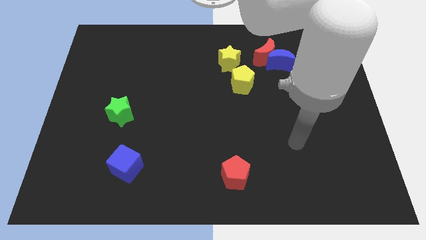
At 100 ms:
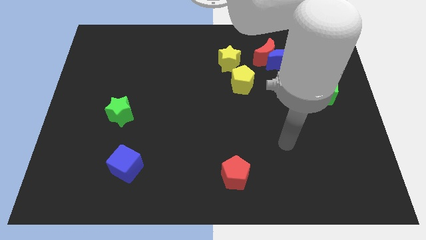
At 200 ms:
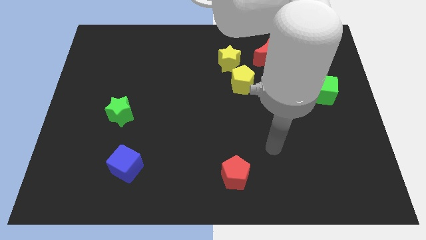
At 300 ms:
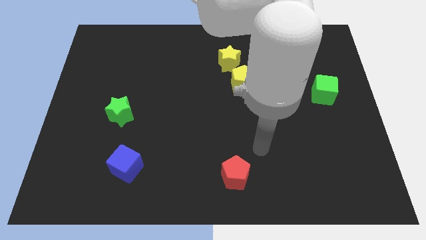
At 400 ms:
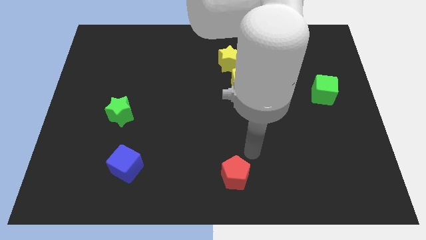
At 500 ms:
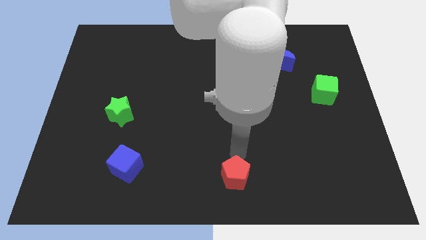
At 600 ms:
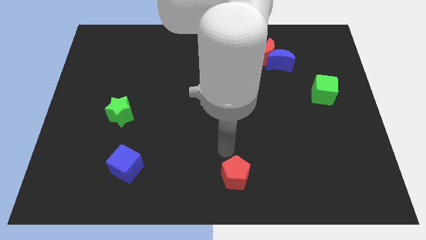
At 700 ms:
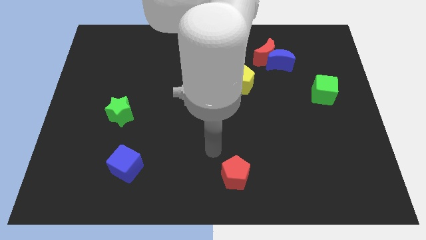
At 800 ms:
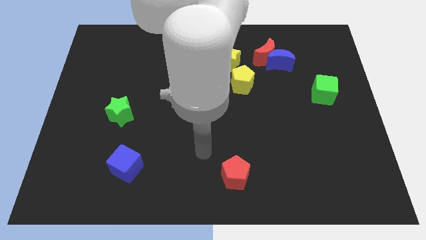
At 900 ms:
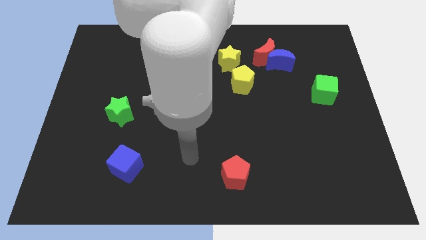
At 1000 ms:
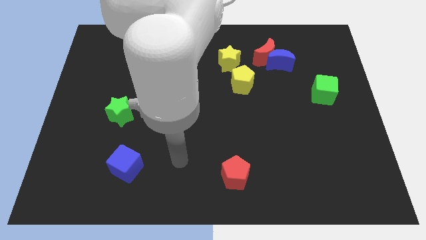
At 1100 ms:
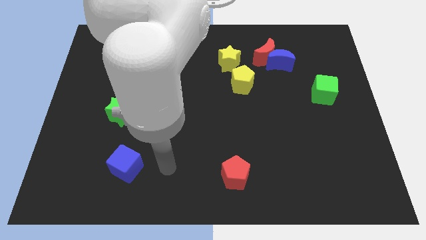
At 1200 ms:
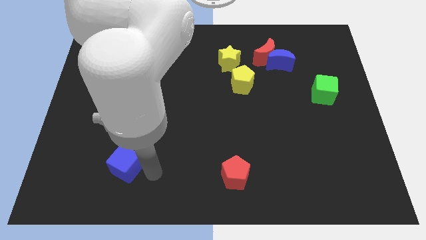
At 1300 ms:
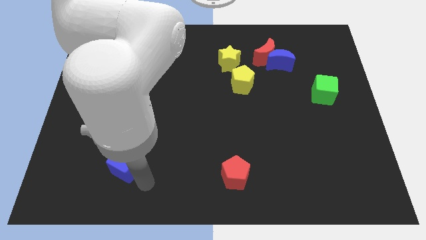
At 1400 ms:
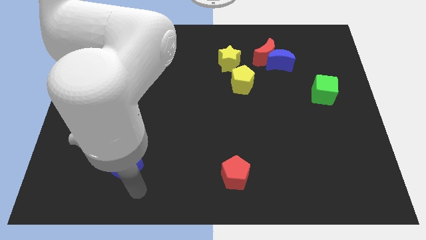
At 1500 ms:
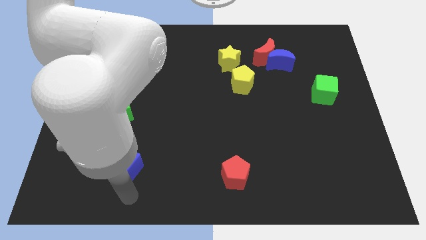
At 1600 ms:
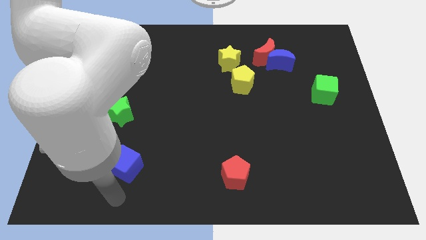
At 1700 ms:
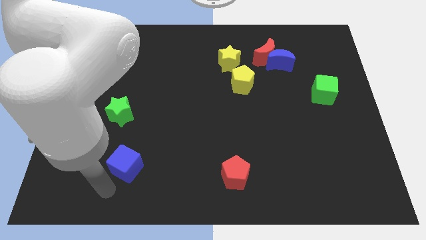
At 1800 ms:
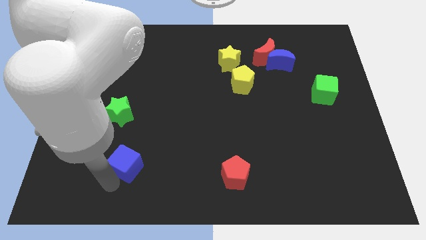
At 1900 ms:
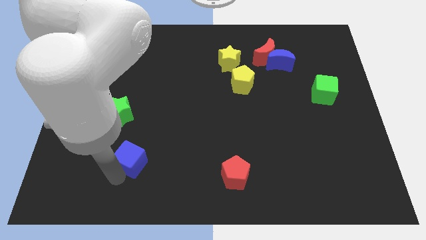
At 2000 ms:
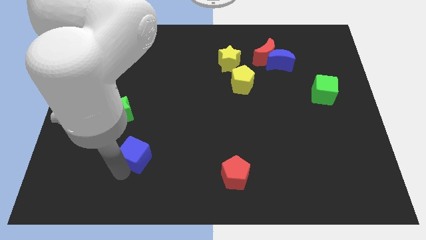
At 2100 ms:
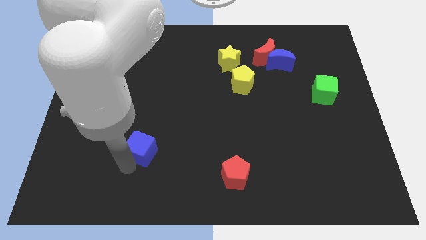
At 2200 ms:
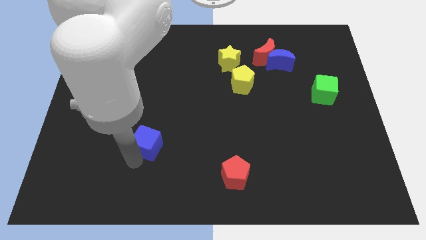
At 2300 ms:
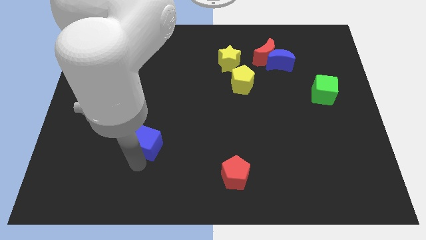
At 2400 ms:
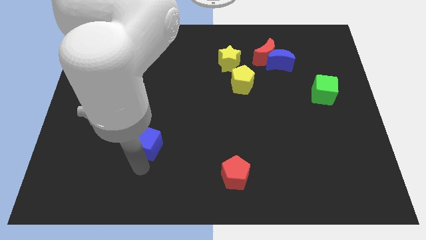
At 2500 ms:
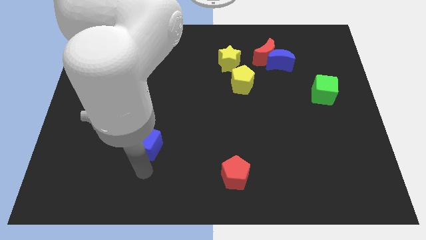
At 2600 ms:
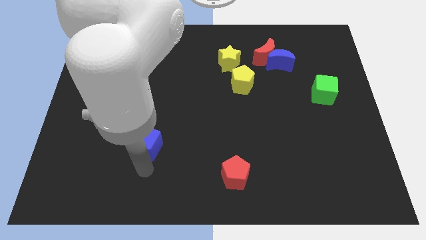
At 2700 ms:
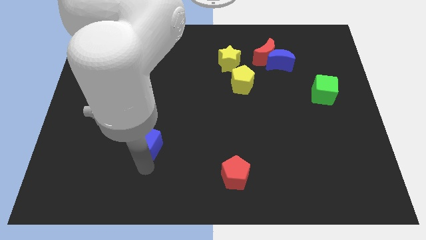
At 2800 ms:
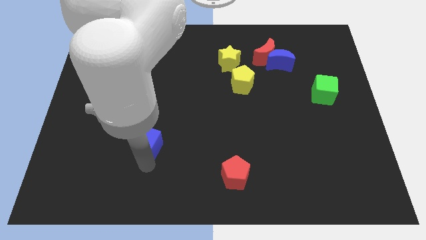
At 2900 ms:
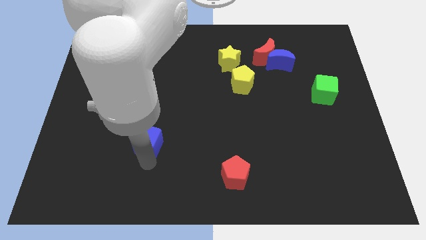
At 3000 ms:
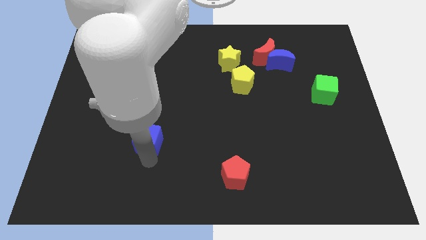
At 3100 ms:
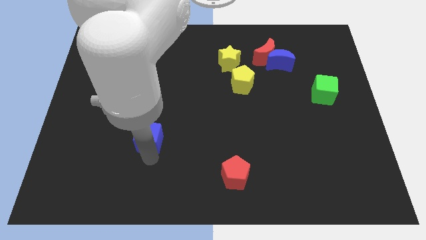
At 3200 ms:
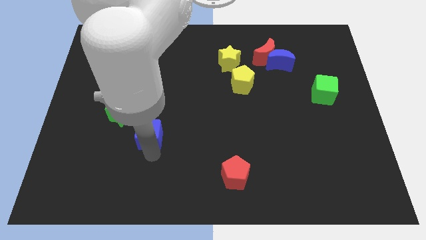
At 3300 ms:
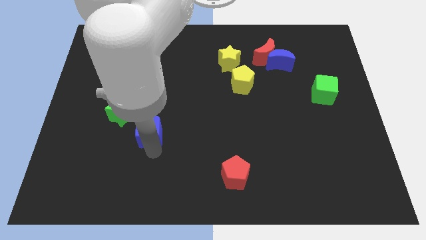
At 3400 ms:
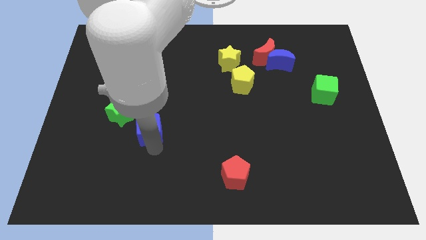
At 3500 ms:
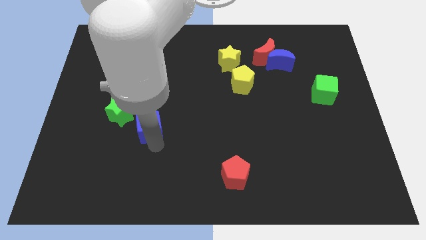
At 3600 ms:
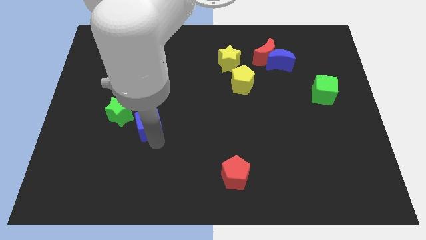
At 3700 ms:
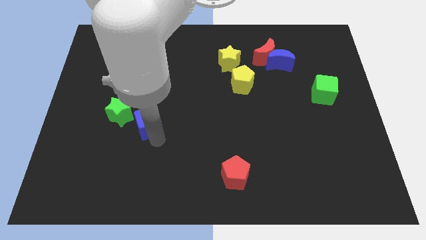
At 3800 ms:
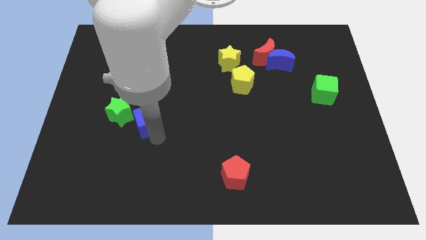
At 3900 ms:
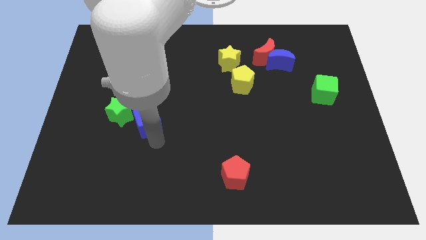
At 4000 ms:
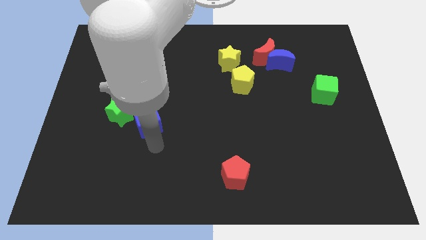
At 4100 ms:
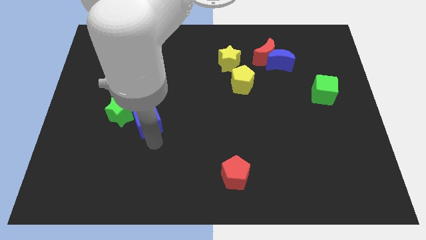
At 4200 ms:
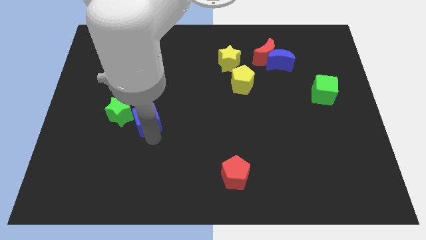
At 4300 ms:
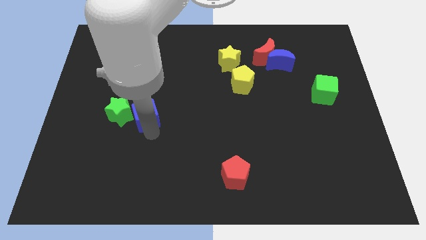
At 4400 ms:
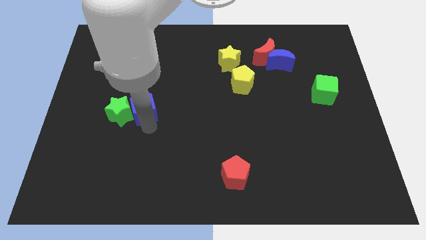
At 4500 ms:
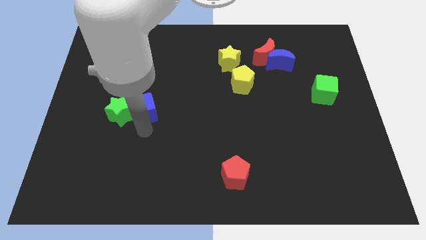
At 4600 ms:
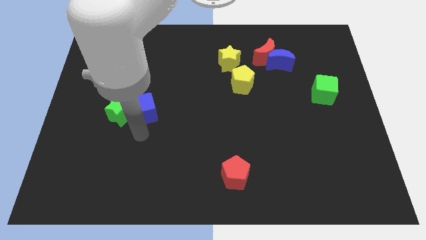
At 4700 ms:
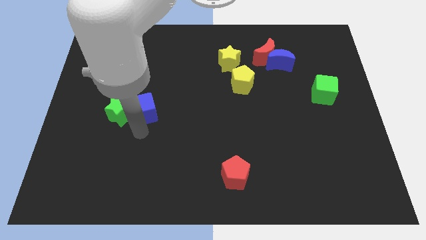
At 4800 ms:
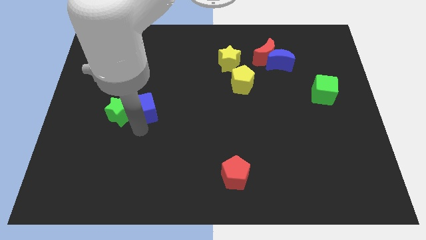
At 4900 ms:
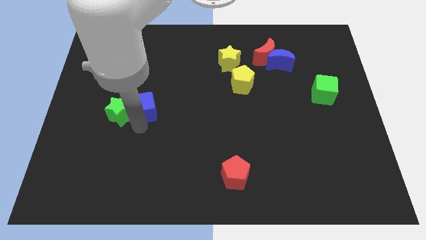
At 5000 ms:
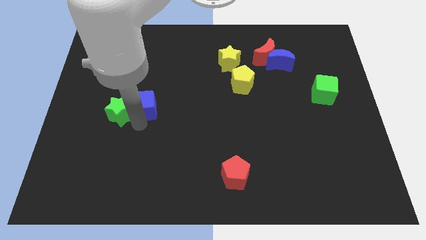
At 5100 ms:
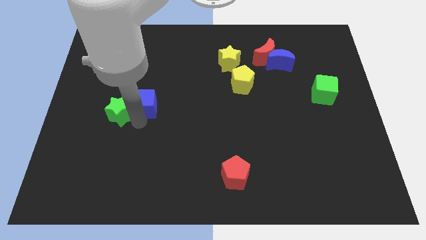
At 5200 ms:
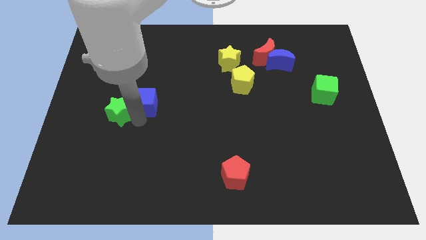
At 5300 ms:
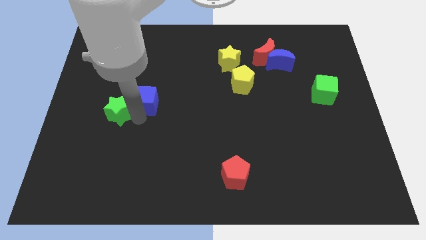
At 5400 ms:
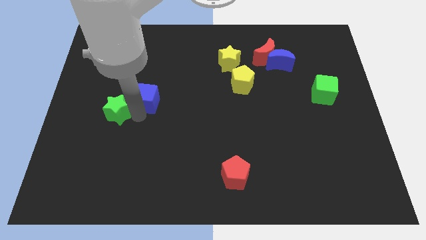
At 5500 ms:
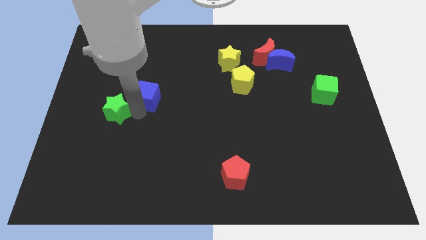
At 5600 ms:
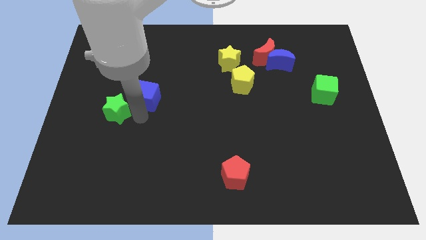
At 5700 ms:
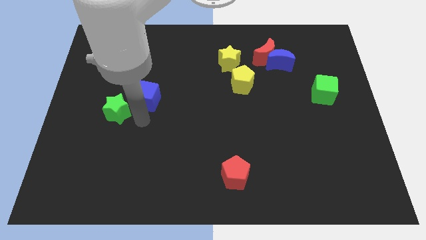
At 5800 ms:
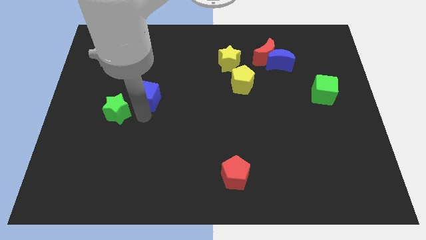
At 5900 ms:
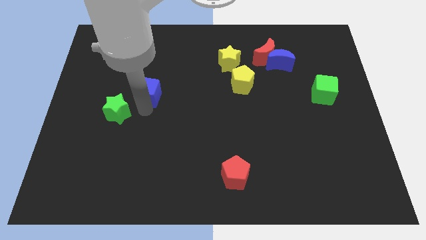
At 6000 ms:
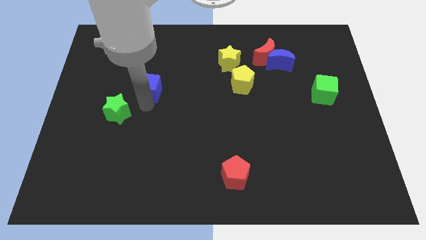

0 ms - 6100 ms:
push the blue cube upwards

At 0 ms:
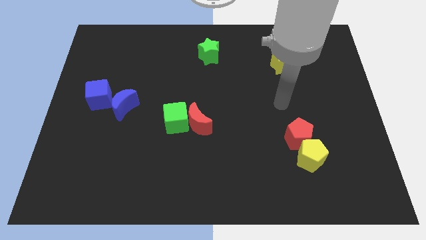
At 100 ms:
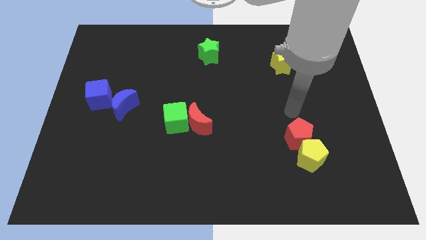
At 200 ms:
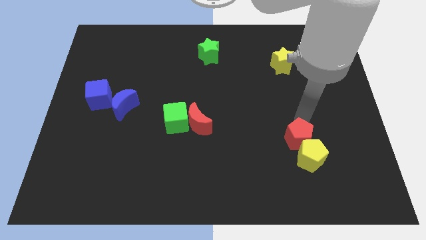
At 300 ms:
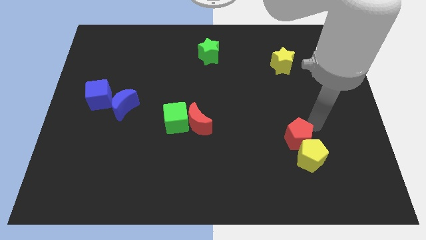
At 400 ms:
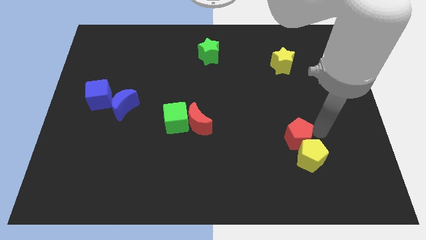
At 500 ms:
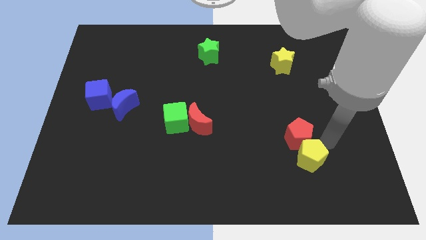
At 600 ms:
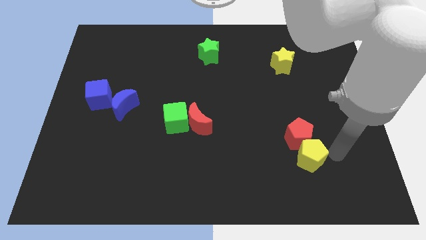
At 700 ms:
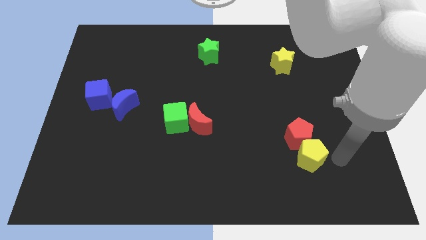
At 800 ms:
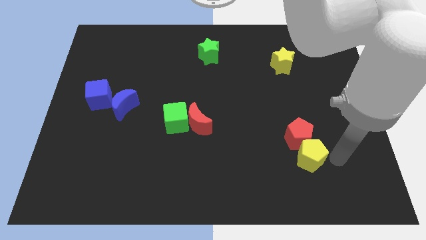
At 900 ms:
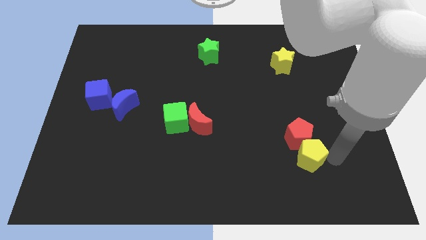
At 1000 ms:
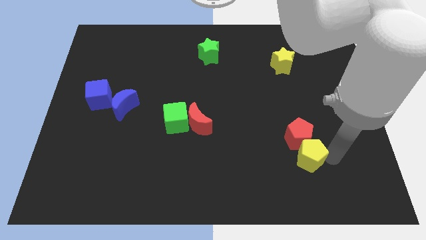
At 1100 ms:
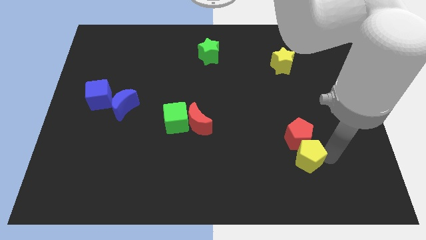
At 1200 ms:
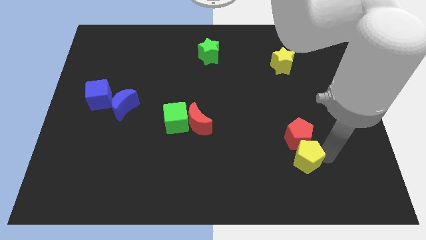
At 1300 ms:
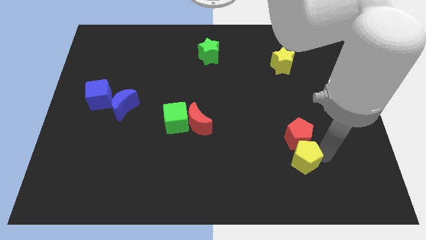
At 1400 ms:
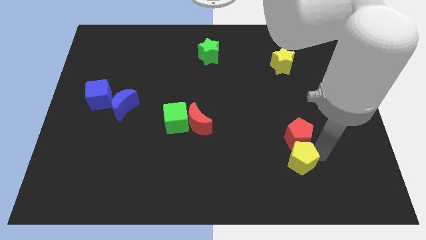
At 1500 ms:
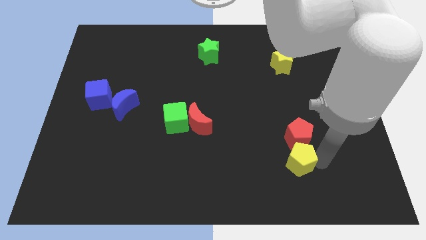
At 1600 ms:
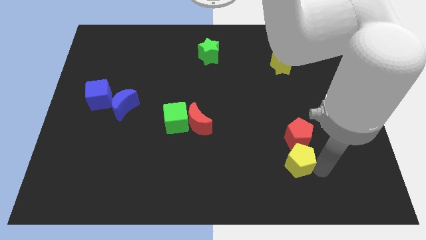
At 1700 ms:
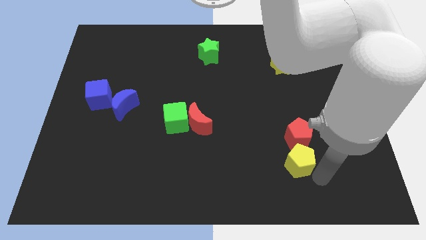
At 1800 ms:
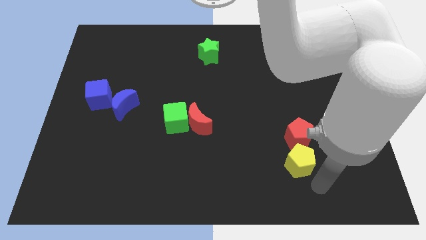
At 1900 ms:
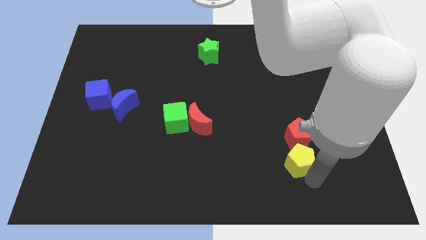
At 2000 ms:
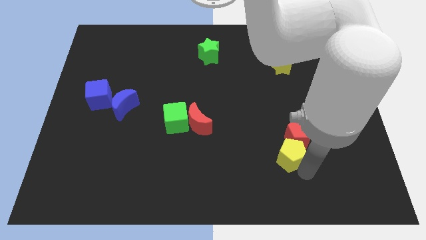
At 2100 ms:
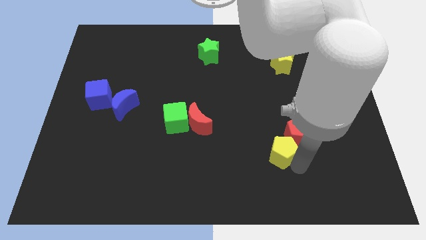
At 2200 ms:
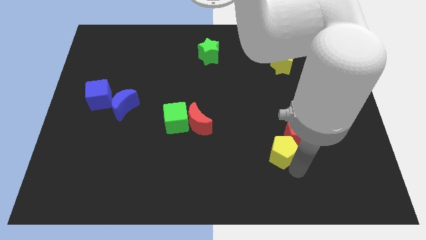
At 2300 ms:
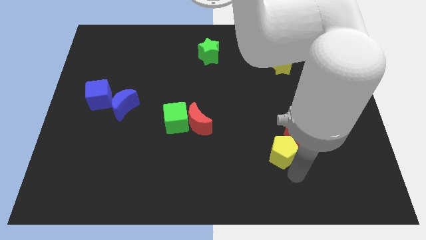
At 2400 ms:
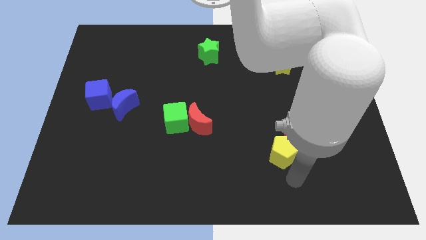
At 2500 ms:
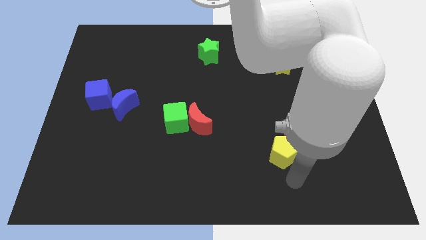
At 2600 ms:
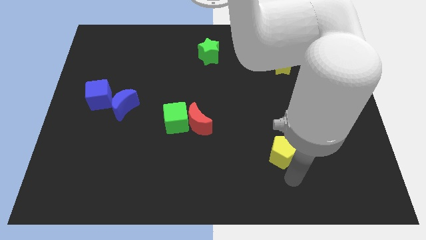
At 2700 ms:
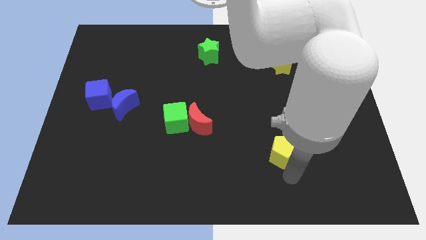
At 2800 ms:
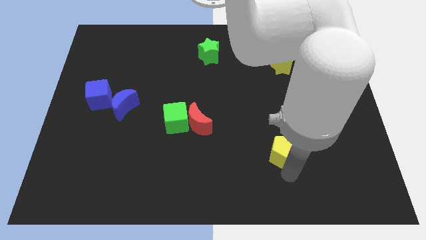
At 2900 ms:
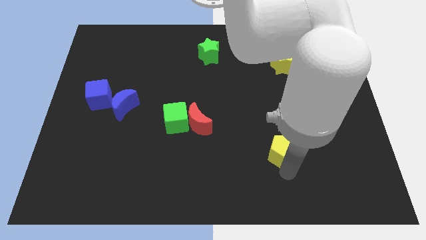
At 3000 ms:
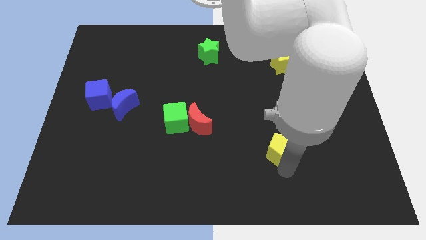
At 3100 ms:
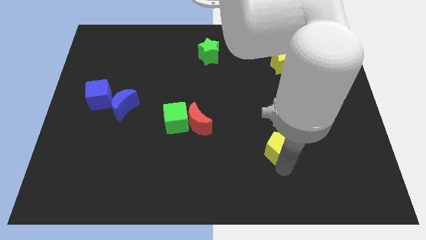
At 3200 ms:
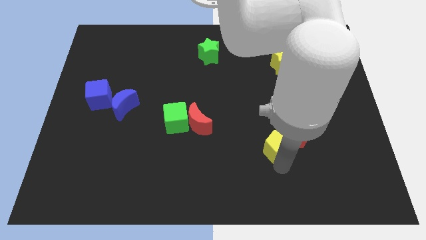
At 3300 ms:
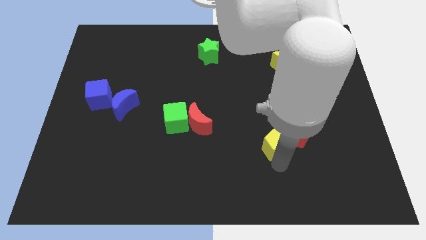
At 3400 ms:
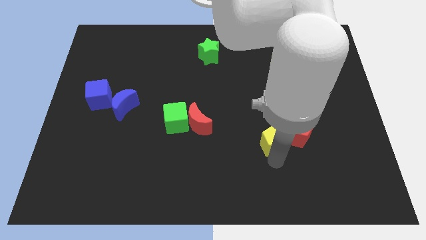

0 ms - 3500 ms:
slightly push the yellow pentagon upwards and left
